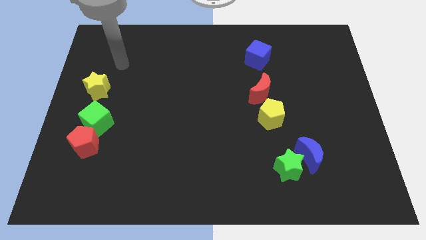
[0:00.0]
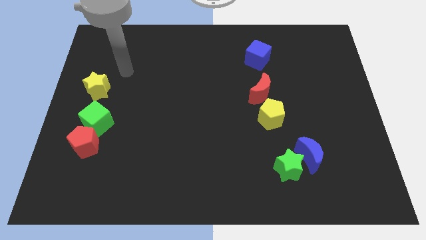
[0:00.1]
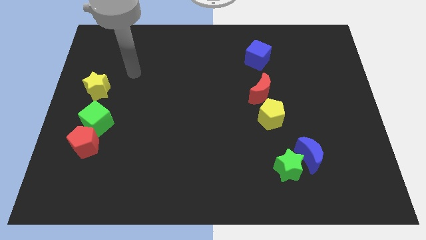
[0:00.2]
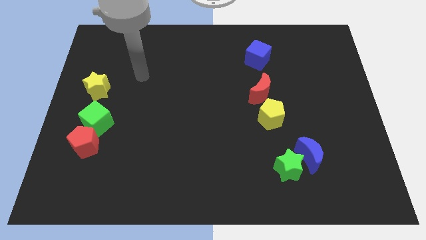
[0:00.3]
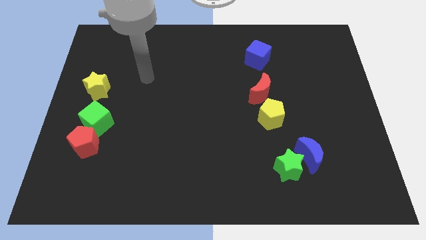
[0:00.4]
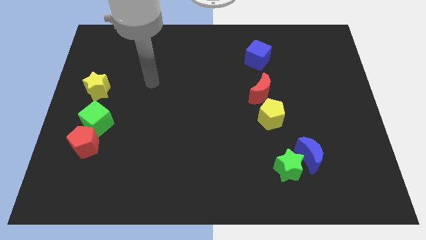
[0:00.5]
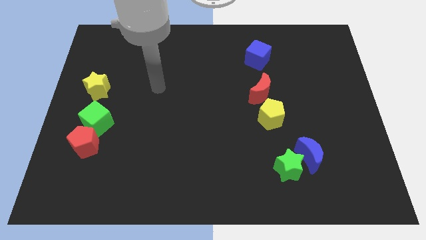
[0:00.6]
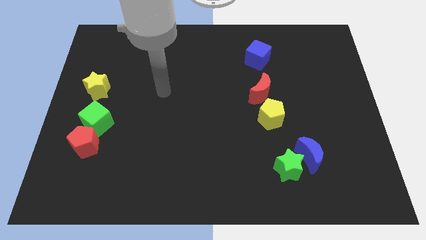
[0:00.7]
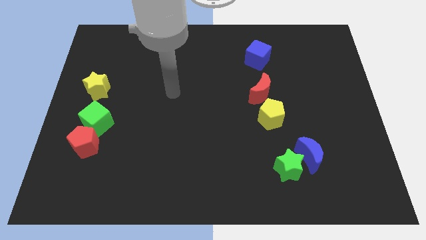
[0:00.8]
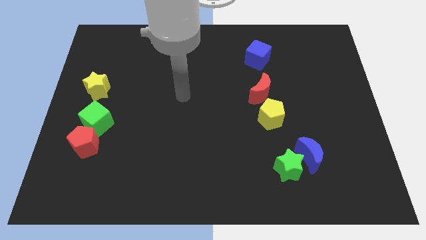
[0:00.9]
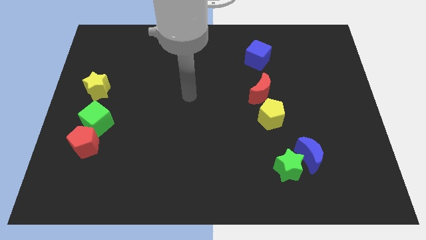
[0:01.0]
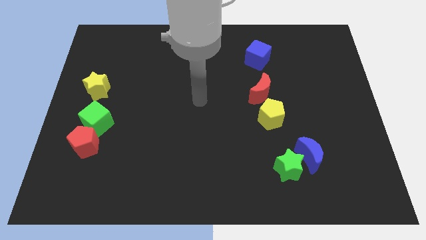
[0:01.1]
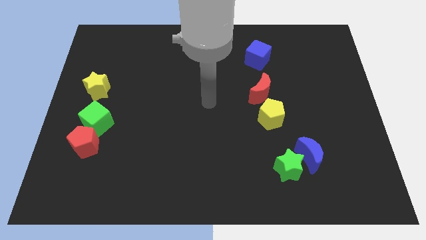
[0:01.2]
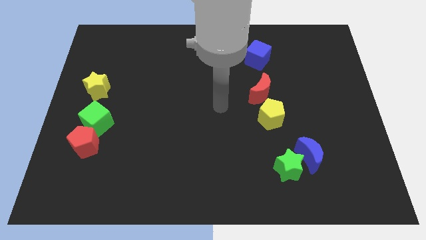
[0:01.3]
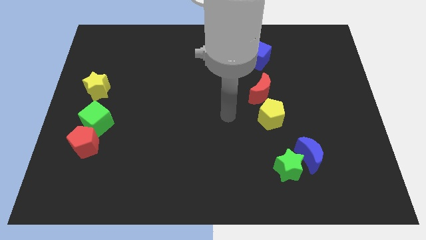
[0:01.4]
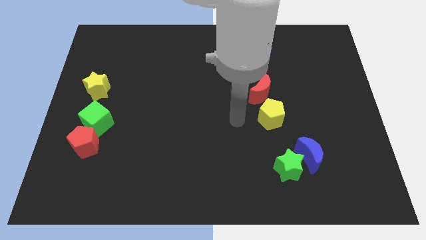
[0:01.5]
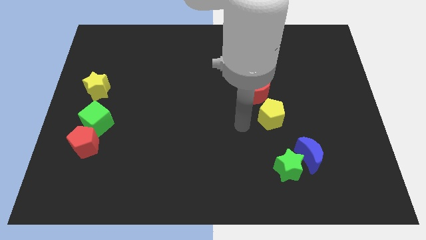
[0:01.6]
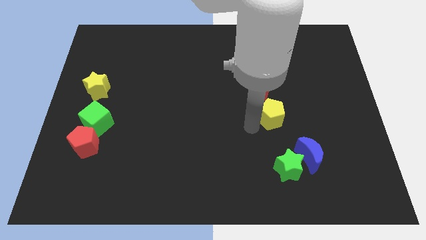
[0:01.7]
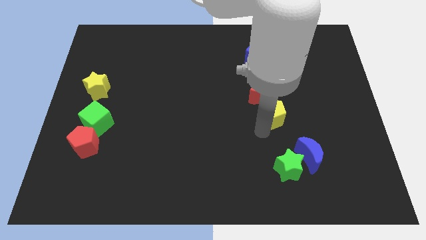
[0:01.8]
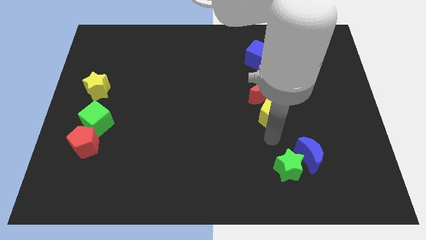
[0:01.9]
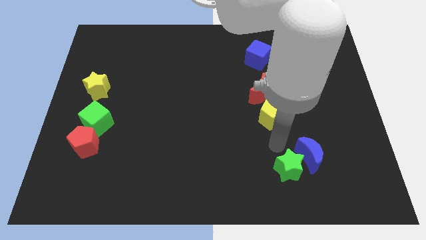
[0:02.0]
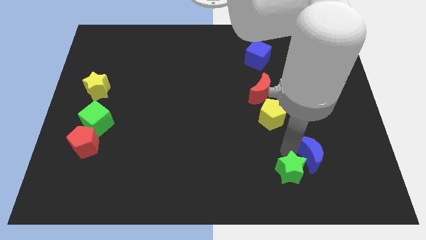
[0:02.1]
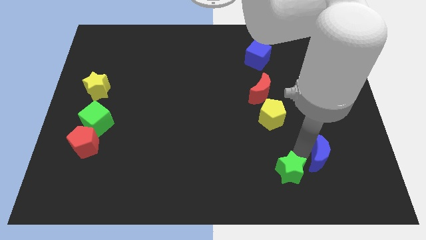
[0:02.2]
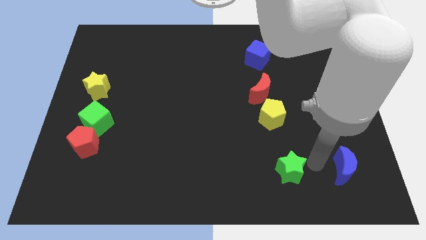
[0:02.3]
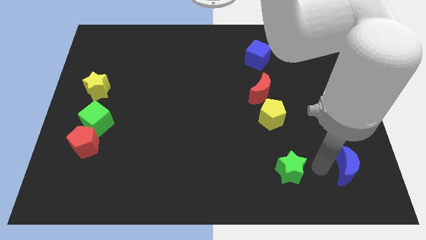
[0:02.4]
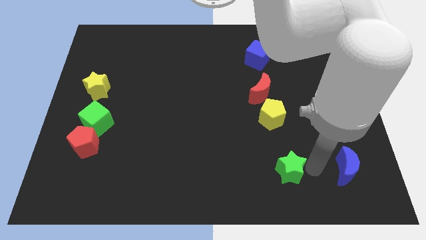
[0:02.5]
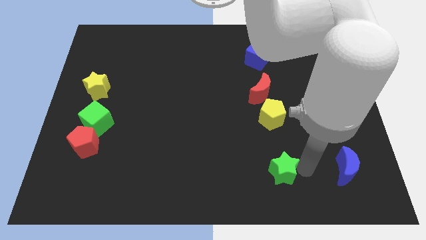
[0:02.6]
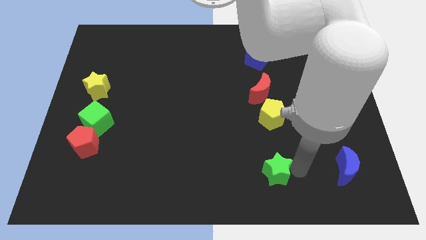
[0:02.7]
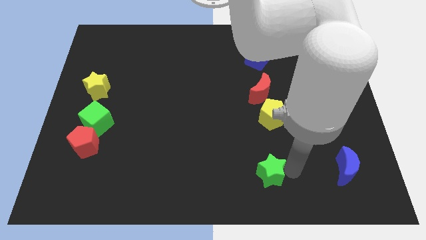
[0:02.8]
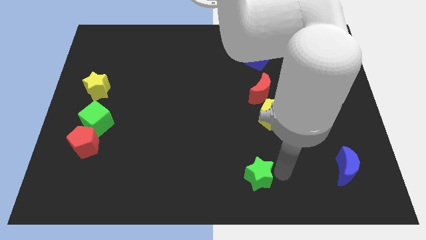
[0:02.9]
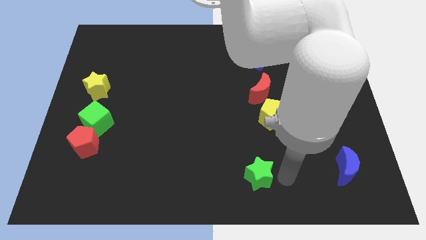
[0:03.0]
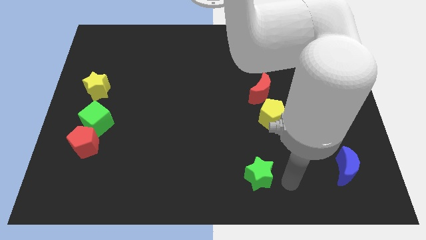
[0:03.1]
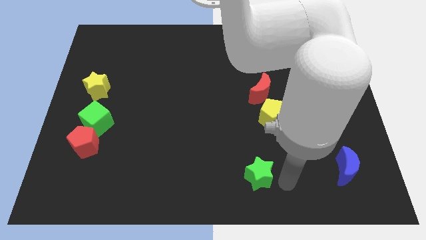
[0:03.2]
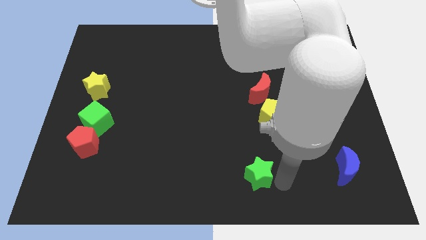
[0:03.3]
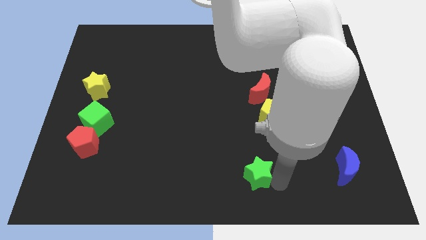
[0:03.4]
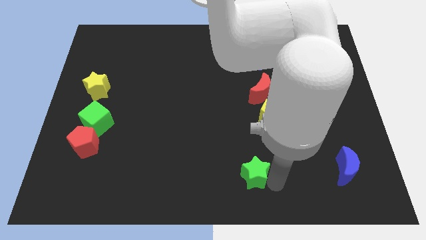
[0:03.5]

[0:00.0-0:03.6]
move the green star a little bit left

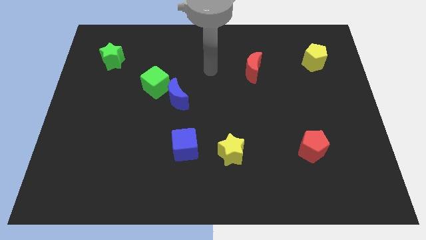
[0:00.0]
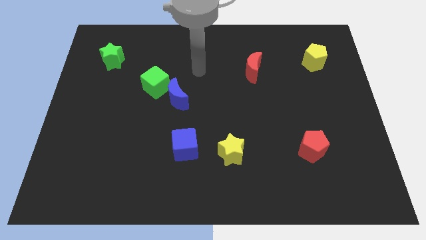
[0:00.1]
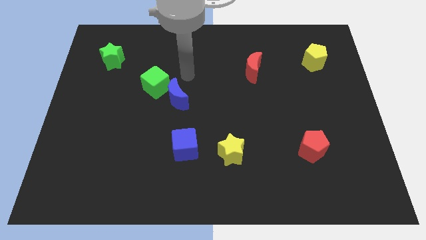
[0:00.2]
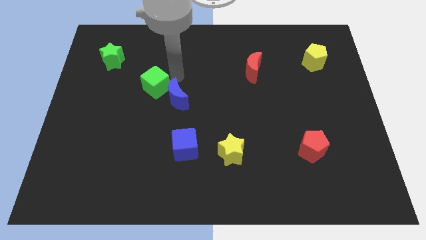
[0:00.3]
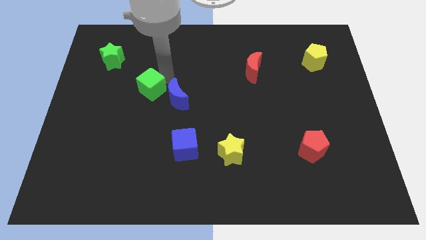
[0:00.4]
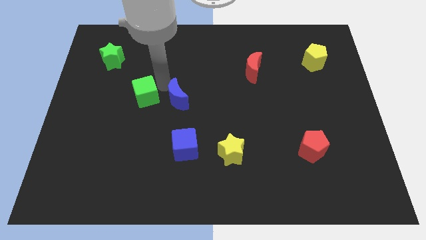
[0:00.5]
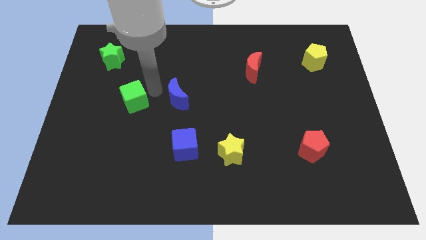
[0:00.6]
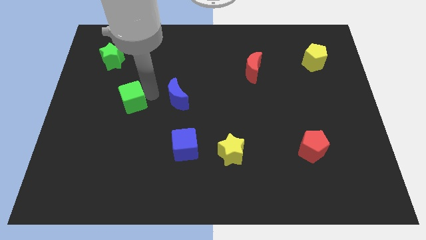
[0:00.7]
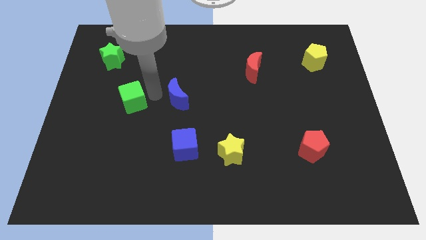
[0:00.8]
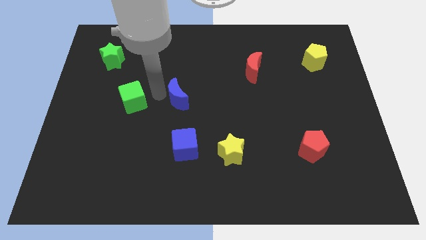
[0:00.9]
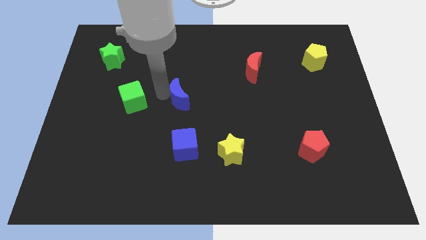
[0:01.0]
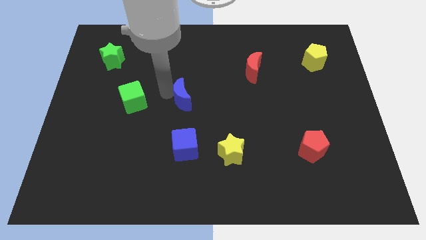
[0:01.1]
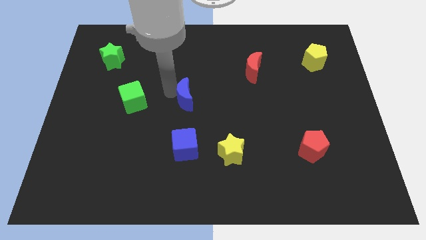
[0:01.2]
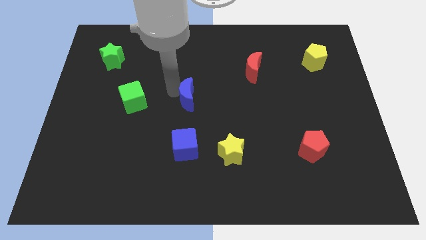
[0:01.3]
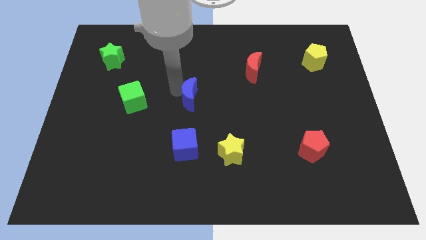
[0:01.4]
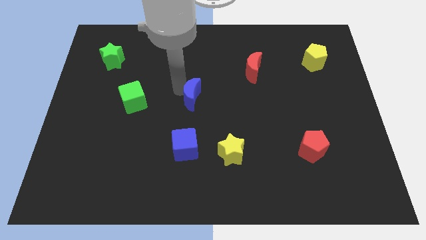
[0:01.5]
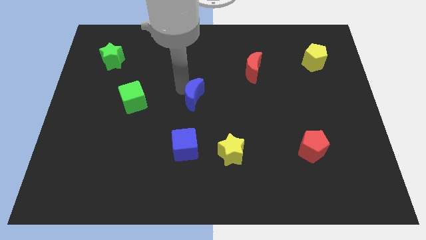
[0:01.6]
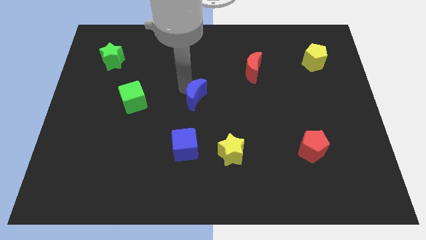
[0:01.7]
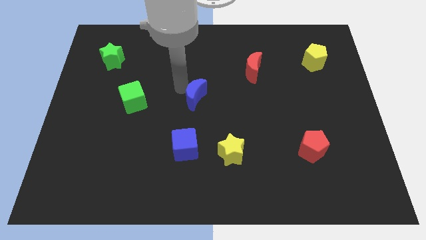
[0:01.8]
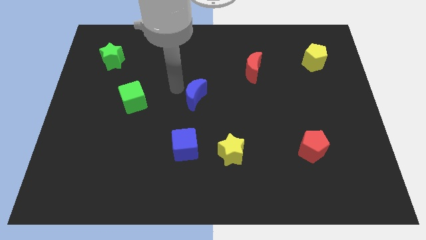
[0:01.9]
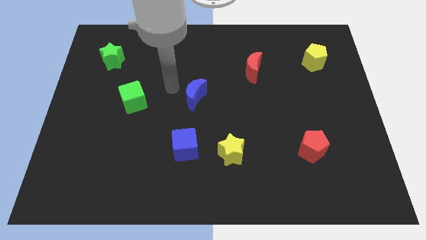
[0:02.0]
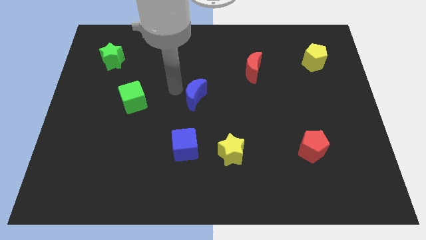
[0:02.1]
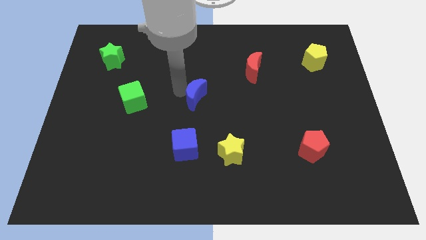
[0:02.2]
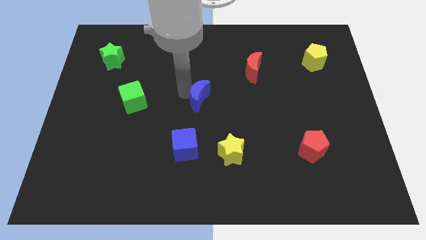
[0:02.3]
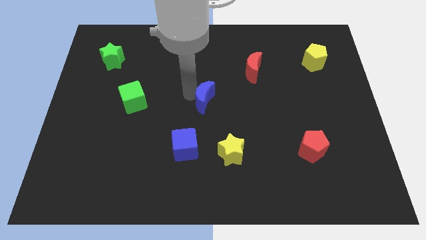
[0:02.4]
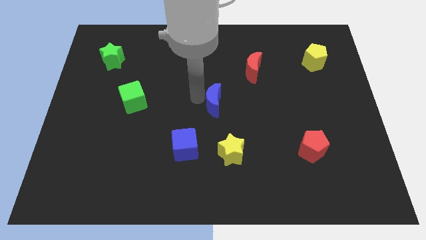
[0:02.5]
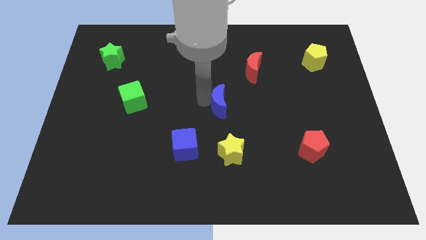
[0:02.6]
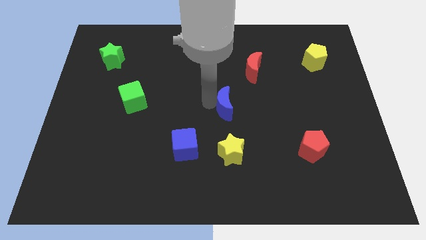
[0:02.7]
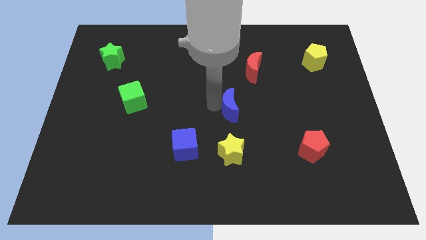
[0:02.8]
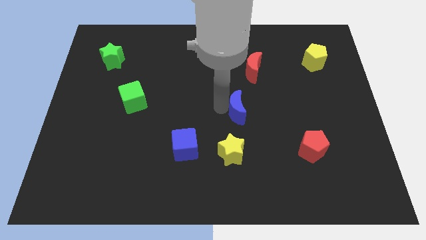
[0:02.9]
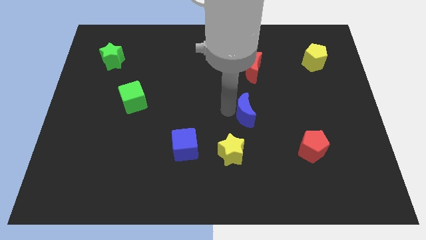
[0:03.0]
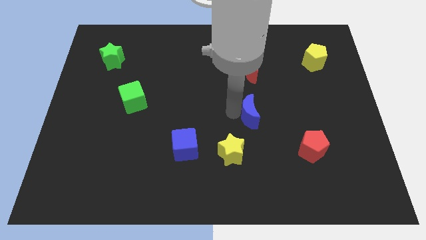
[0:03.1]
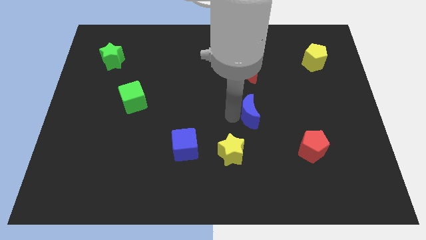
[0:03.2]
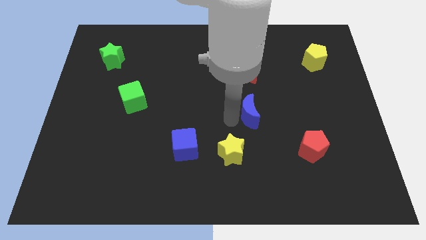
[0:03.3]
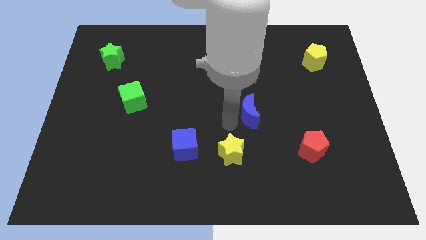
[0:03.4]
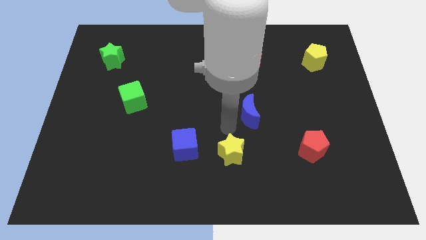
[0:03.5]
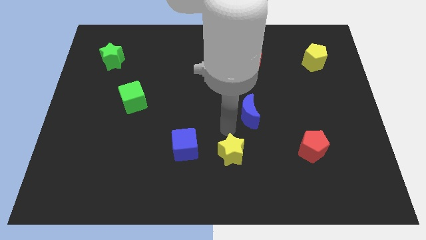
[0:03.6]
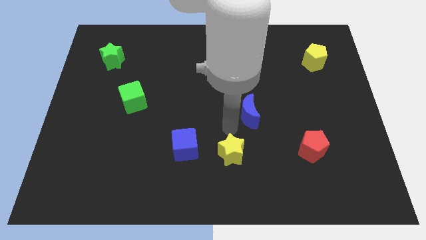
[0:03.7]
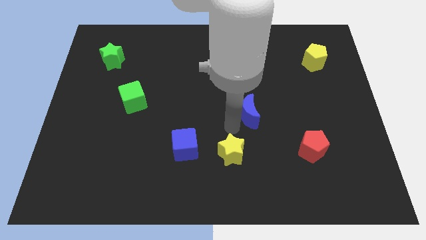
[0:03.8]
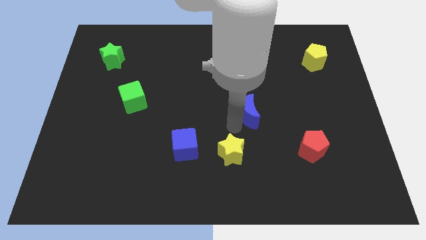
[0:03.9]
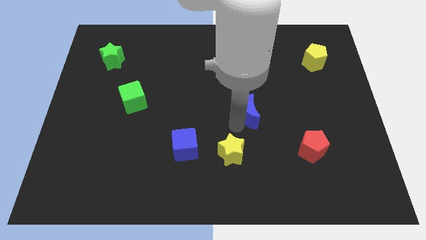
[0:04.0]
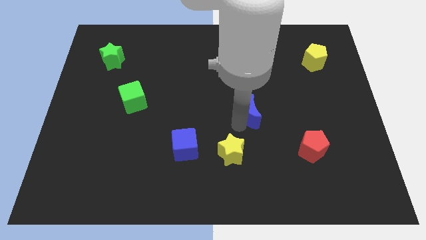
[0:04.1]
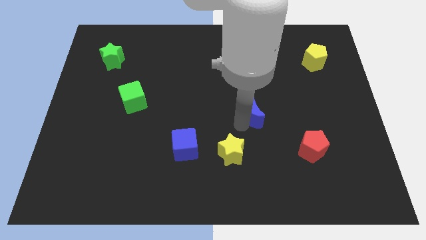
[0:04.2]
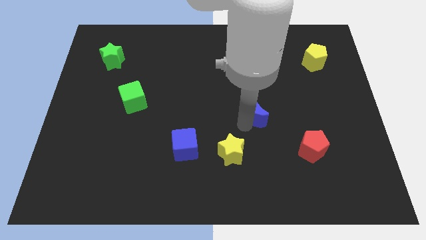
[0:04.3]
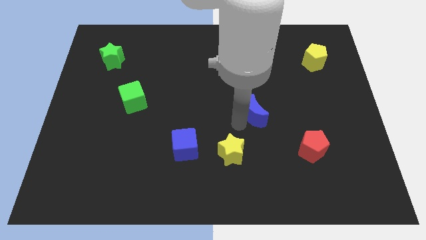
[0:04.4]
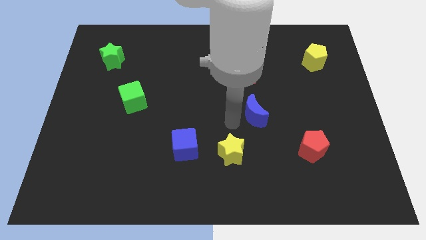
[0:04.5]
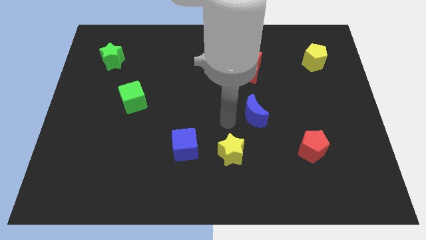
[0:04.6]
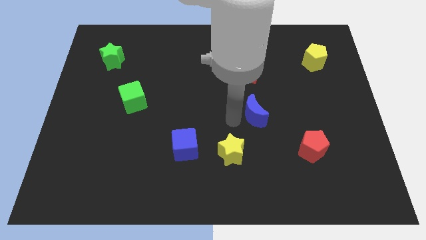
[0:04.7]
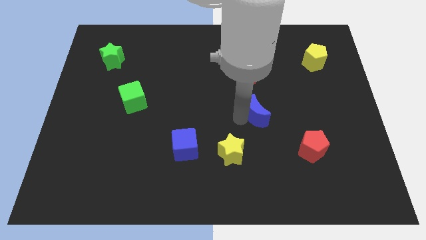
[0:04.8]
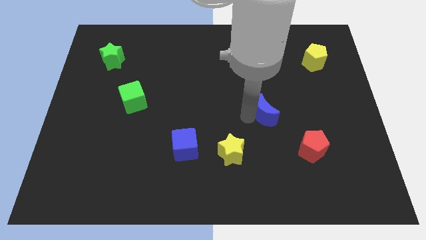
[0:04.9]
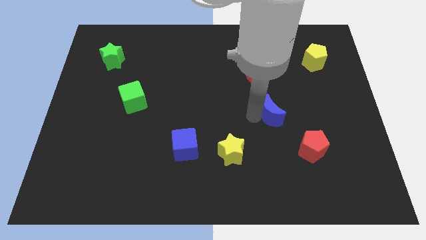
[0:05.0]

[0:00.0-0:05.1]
push the blue moon right
